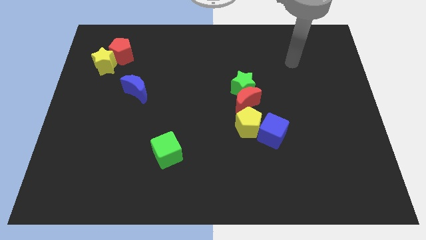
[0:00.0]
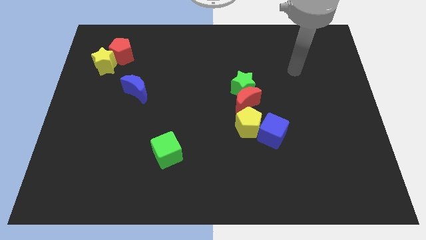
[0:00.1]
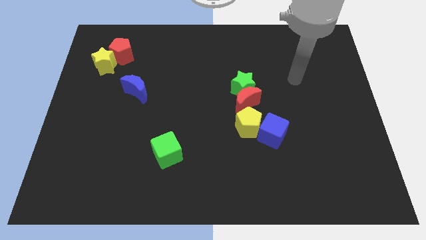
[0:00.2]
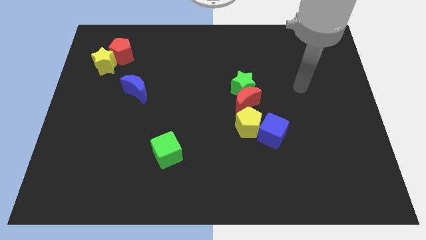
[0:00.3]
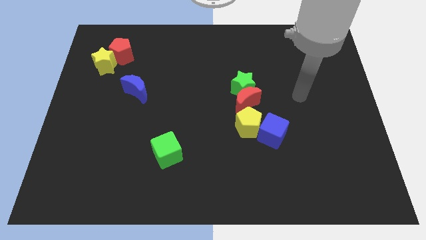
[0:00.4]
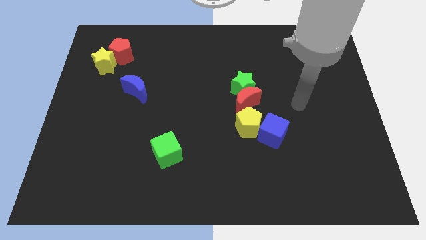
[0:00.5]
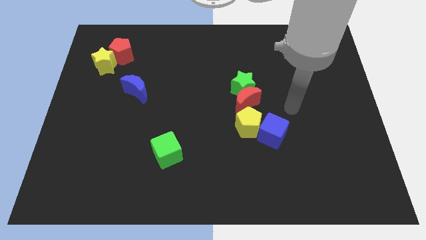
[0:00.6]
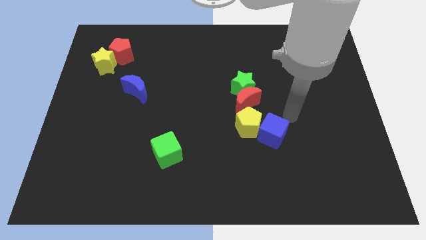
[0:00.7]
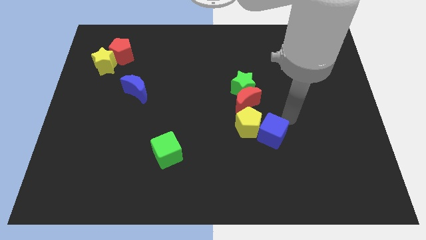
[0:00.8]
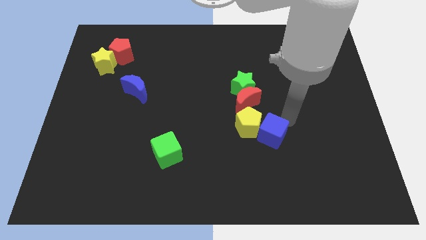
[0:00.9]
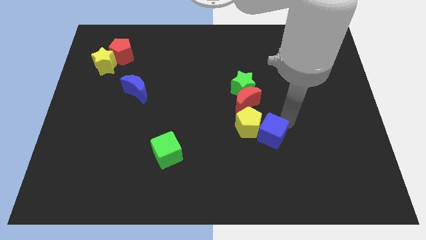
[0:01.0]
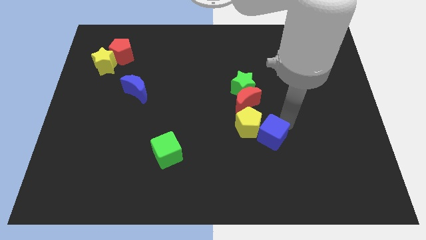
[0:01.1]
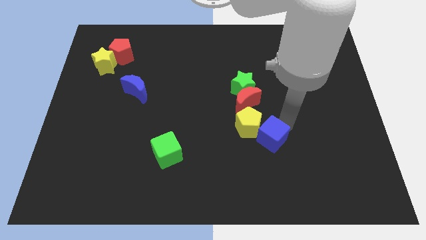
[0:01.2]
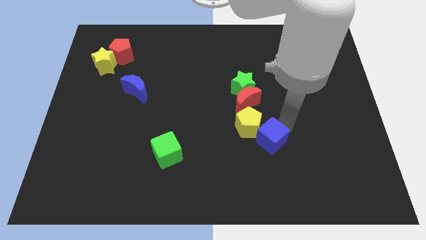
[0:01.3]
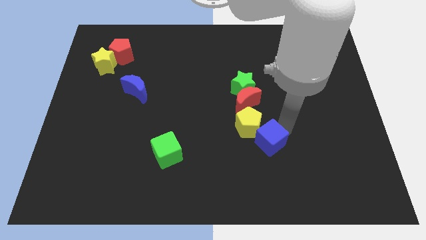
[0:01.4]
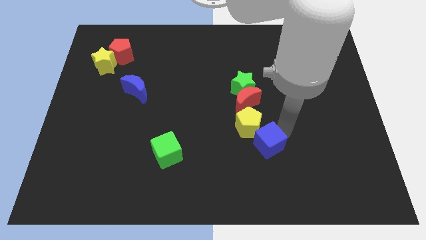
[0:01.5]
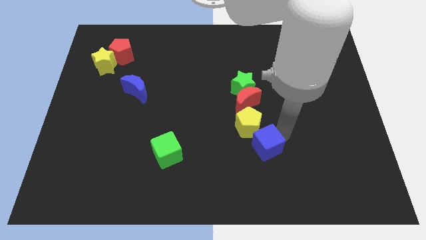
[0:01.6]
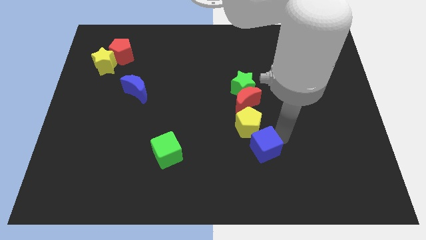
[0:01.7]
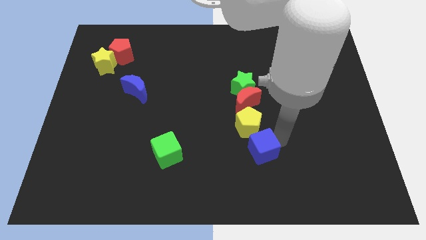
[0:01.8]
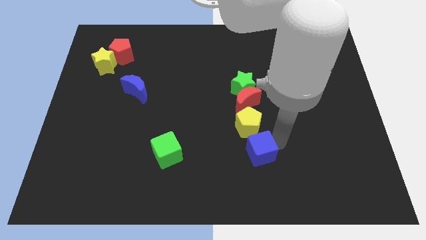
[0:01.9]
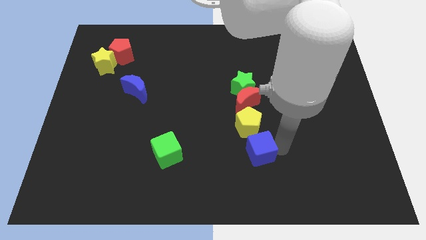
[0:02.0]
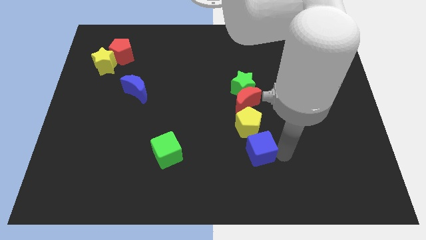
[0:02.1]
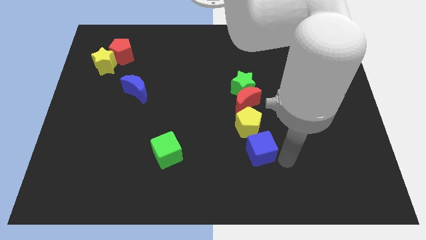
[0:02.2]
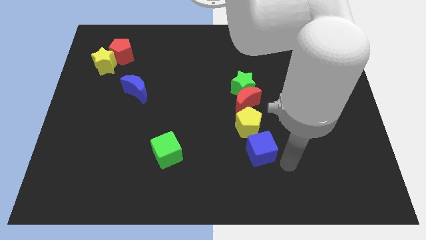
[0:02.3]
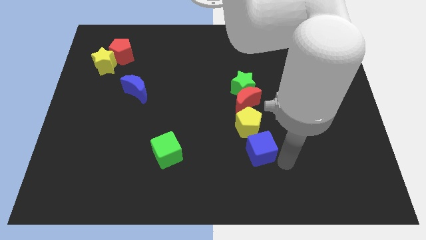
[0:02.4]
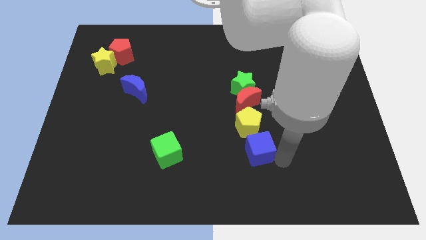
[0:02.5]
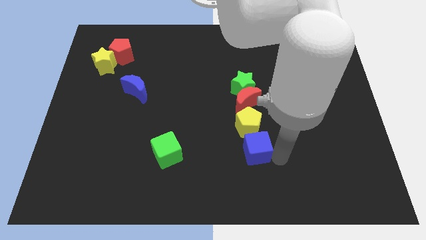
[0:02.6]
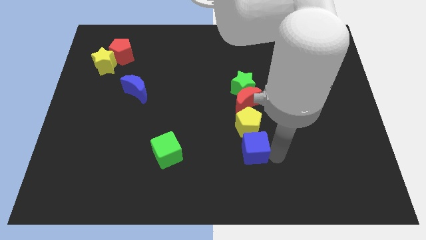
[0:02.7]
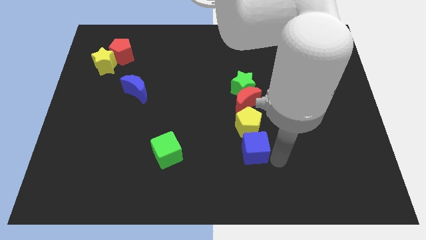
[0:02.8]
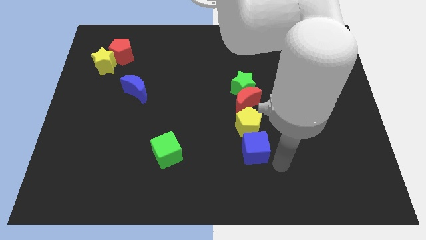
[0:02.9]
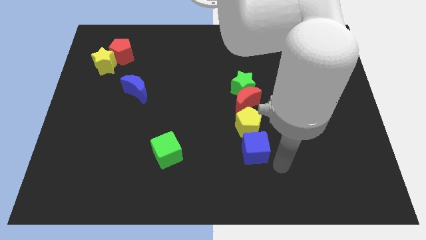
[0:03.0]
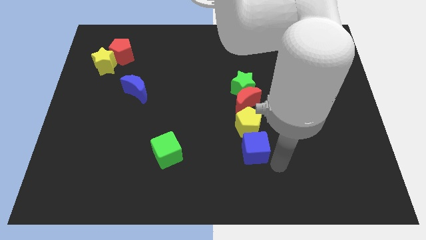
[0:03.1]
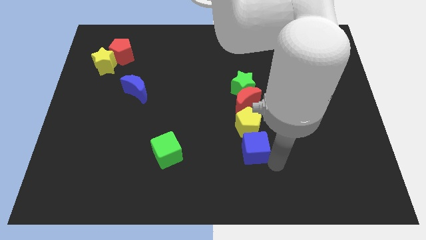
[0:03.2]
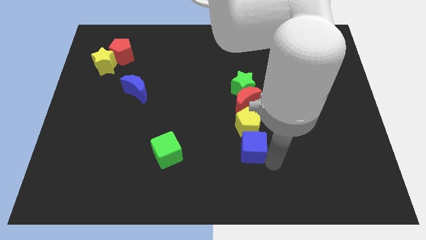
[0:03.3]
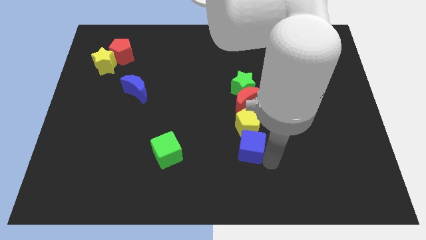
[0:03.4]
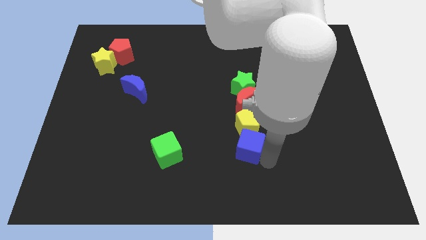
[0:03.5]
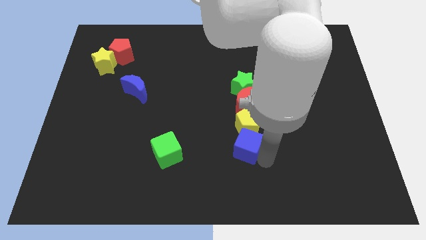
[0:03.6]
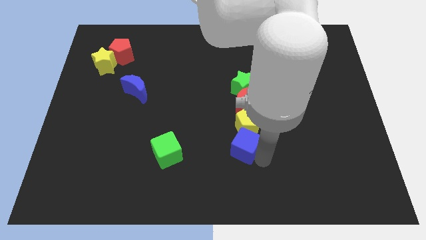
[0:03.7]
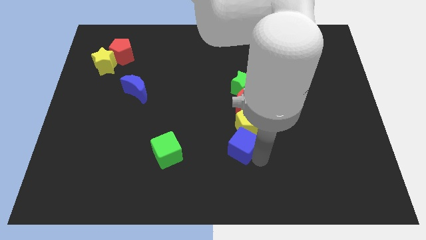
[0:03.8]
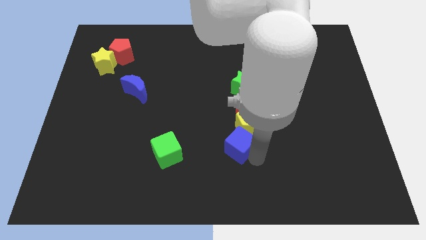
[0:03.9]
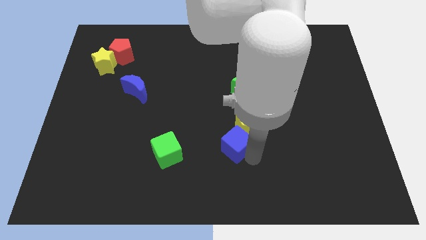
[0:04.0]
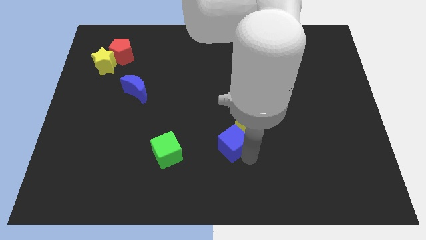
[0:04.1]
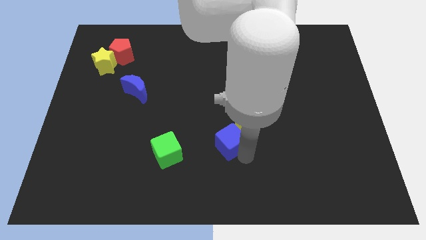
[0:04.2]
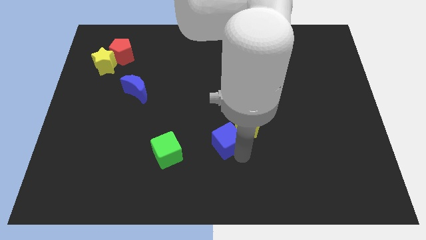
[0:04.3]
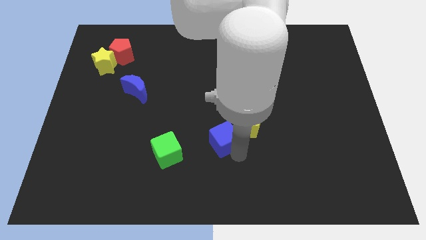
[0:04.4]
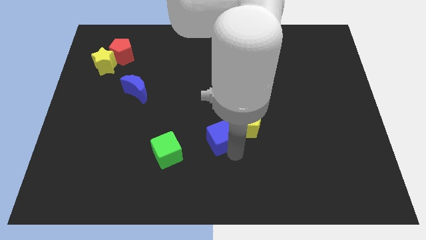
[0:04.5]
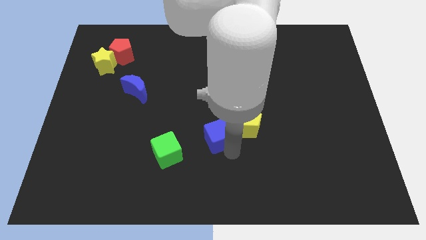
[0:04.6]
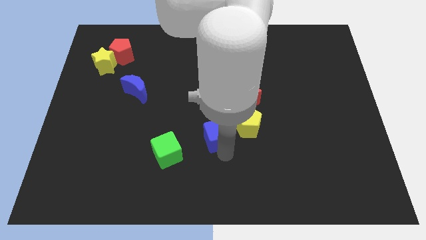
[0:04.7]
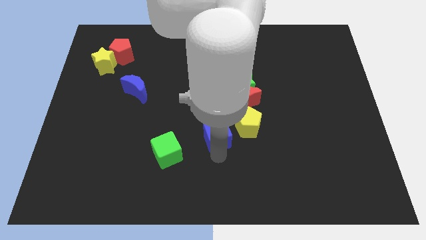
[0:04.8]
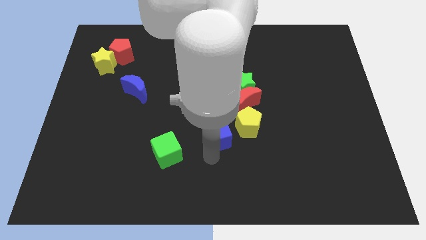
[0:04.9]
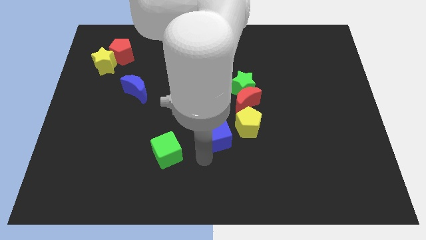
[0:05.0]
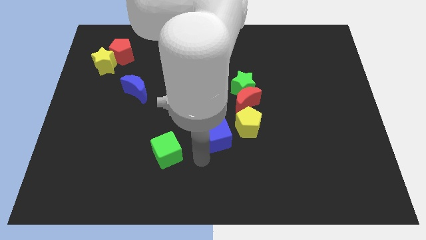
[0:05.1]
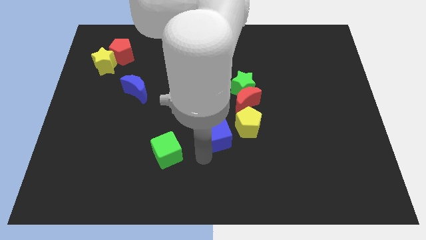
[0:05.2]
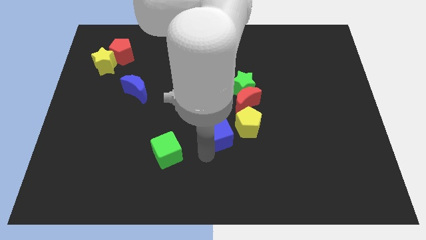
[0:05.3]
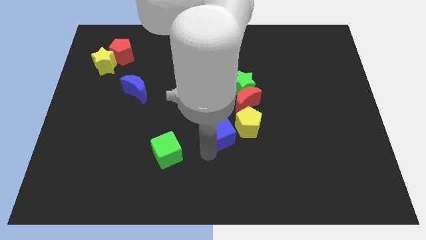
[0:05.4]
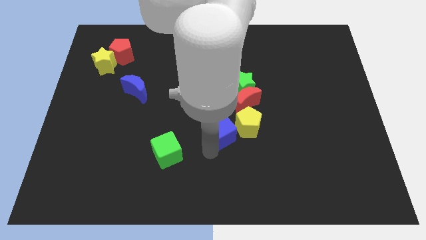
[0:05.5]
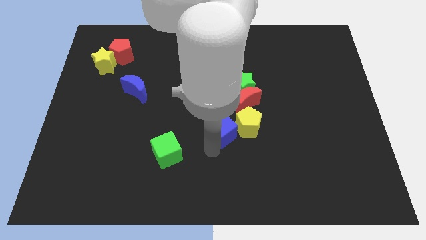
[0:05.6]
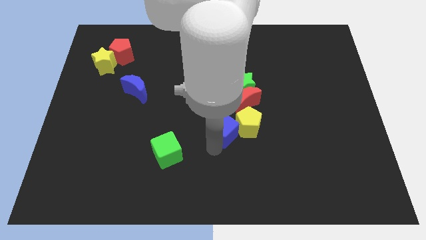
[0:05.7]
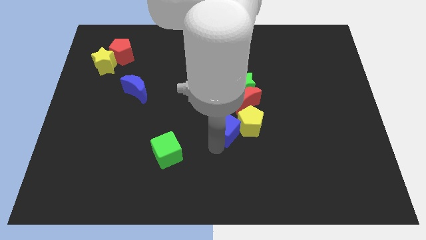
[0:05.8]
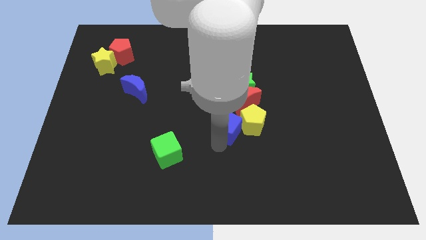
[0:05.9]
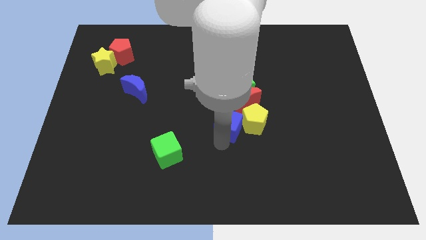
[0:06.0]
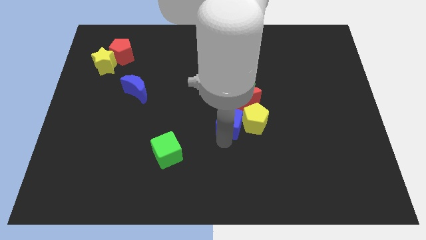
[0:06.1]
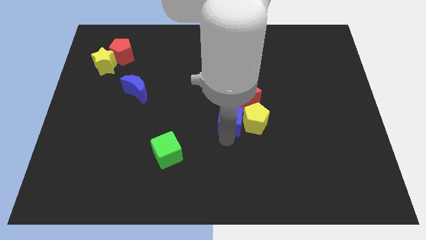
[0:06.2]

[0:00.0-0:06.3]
put the blue cube to the bottom left of the green star
